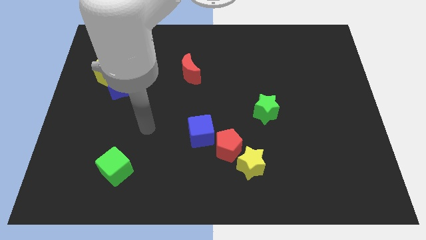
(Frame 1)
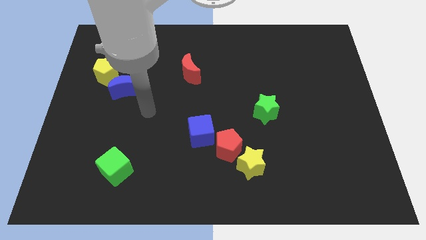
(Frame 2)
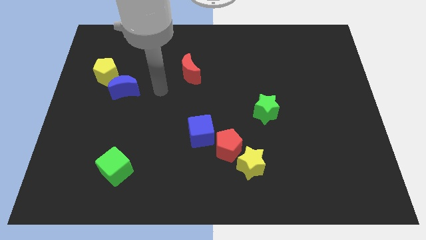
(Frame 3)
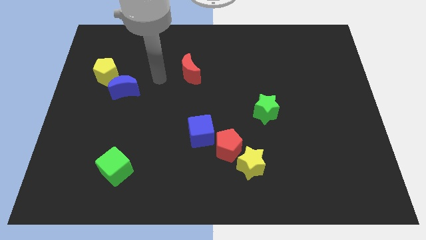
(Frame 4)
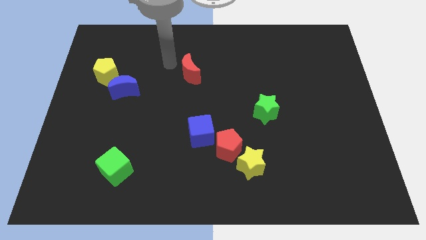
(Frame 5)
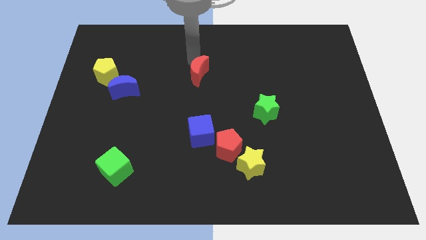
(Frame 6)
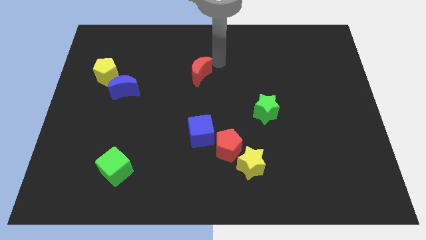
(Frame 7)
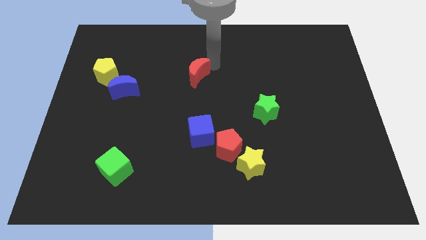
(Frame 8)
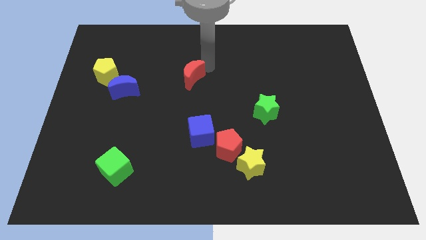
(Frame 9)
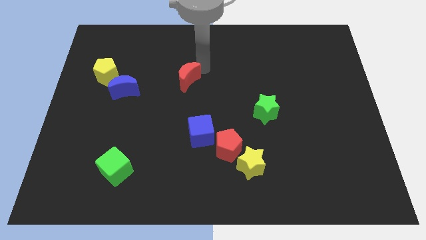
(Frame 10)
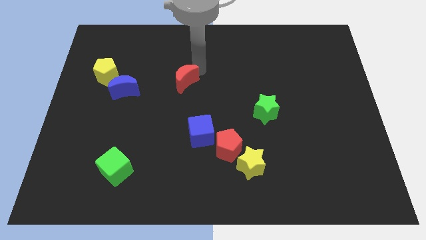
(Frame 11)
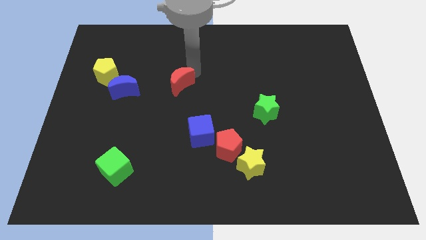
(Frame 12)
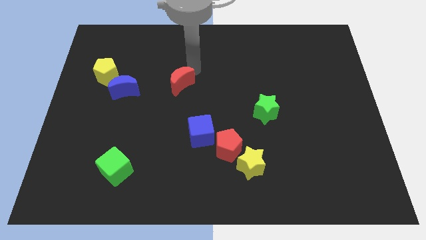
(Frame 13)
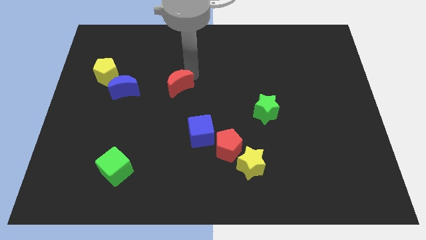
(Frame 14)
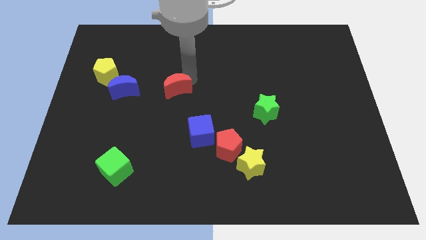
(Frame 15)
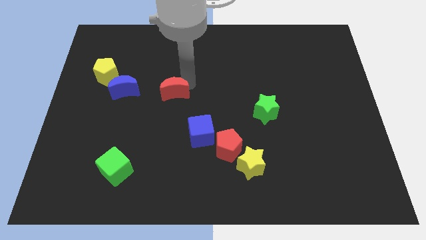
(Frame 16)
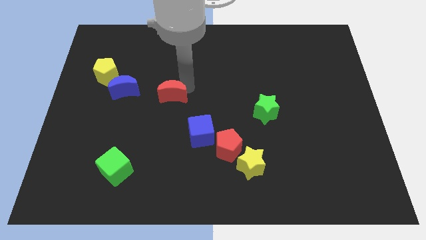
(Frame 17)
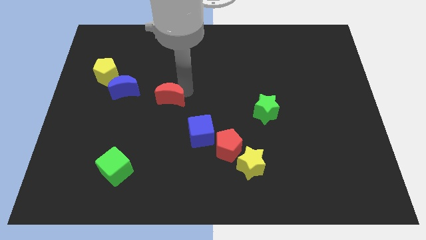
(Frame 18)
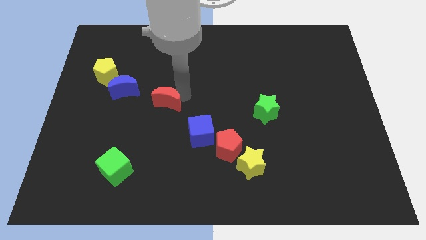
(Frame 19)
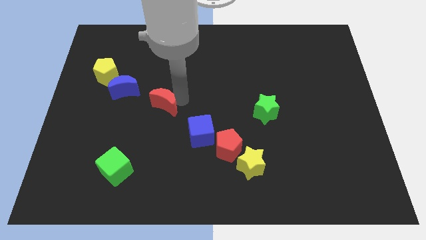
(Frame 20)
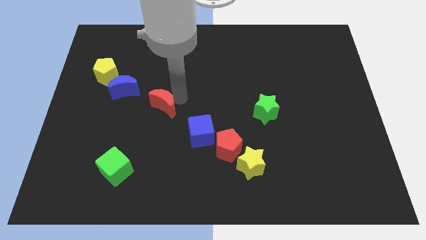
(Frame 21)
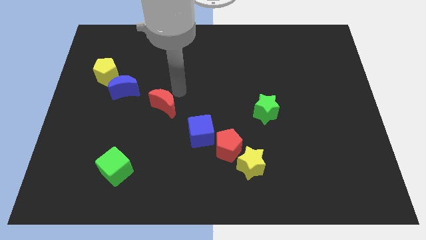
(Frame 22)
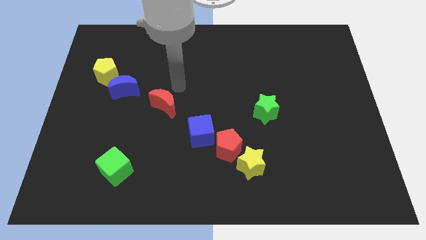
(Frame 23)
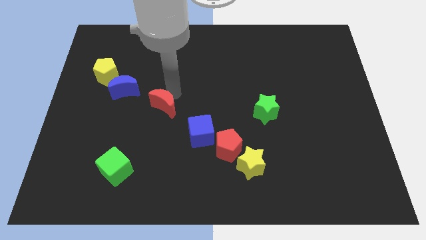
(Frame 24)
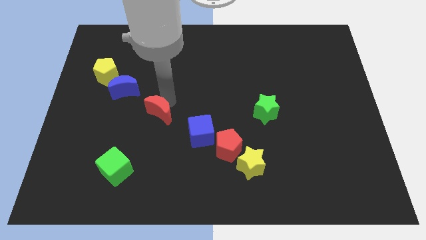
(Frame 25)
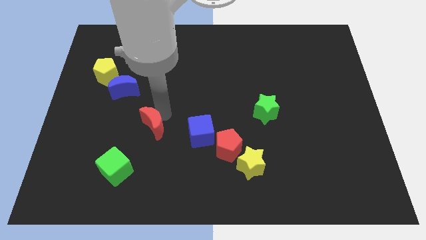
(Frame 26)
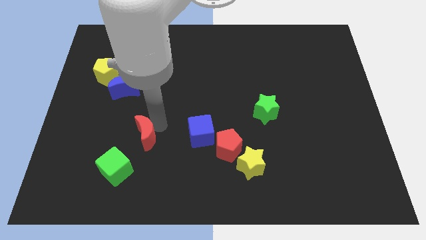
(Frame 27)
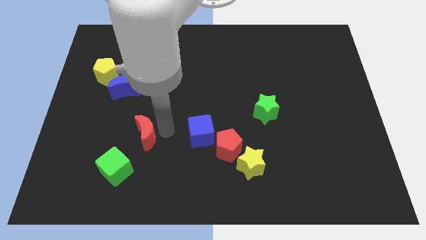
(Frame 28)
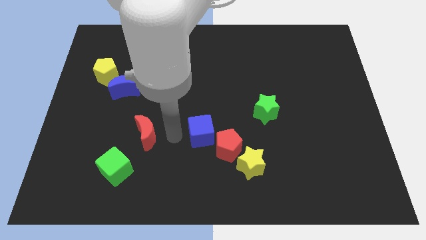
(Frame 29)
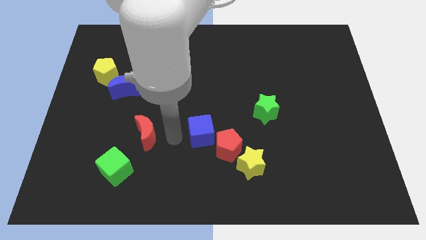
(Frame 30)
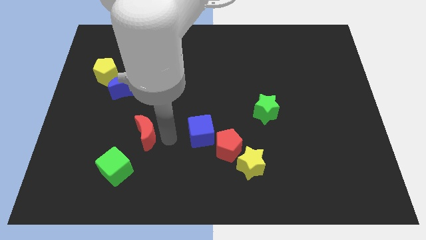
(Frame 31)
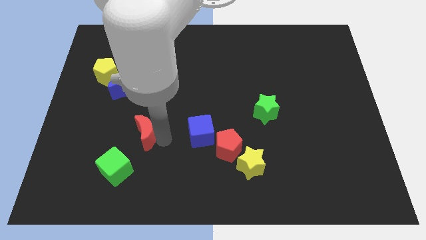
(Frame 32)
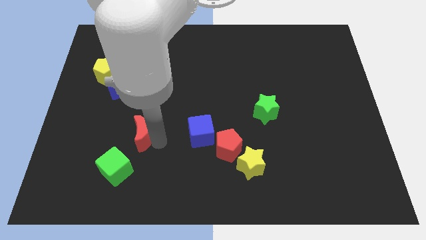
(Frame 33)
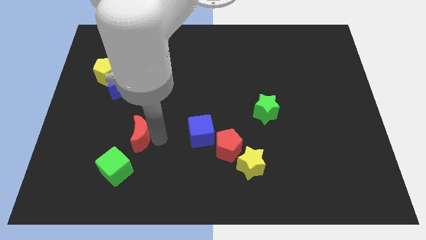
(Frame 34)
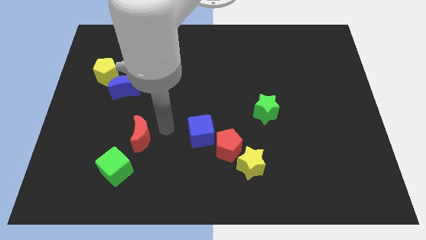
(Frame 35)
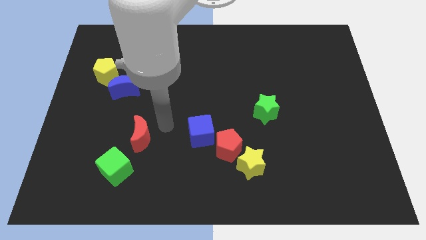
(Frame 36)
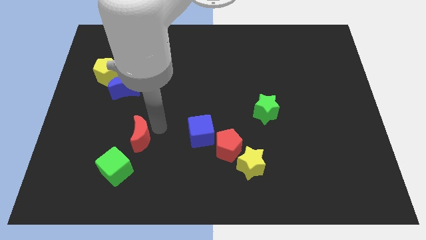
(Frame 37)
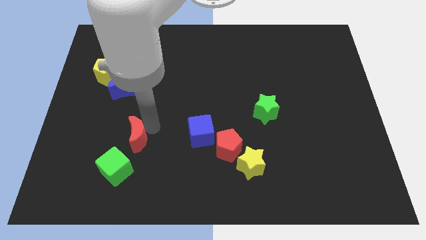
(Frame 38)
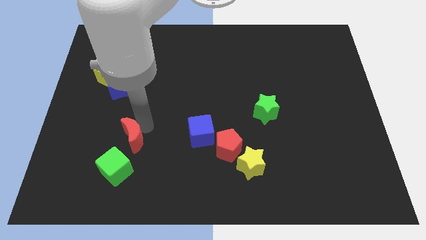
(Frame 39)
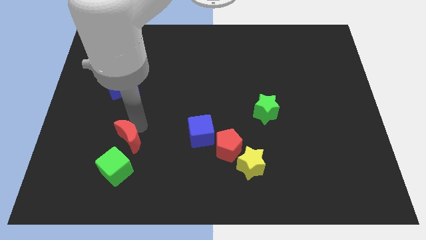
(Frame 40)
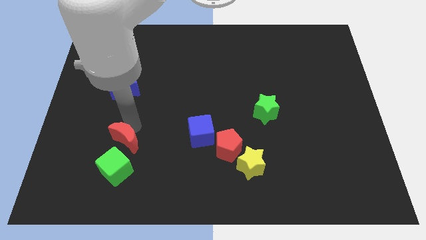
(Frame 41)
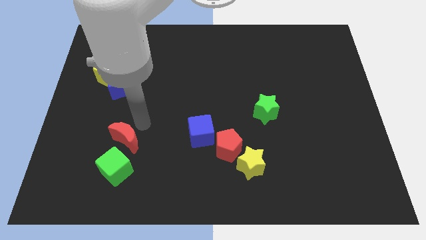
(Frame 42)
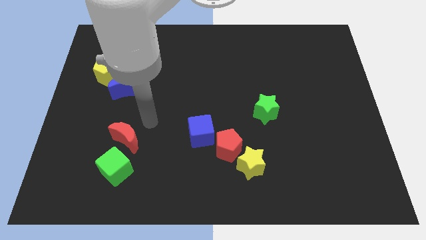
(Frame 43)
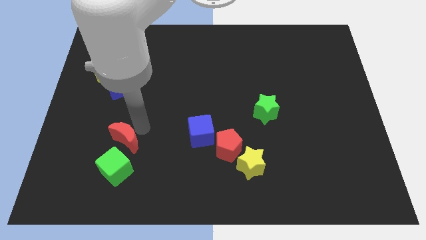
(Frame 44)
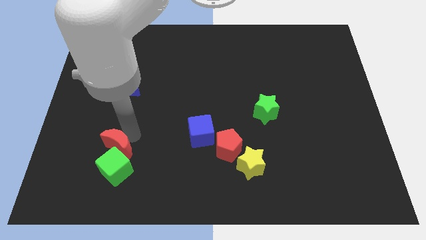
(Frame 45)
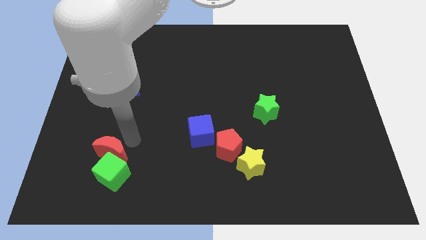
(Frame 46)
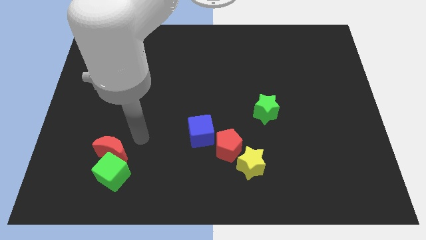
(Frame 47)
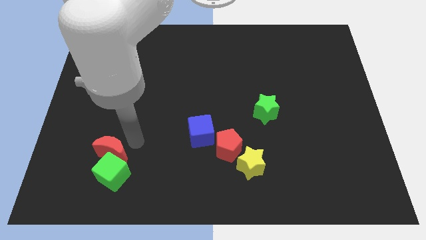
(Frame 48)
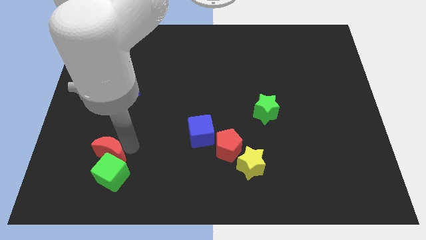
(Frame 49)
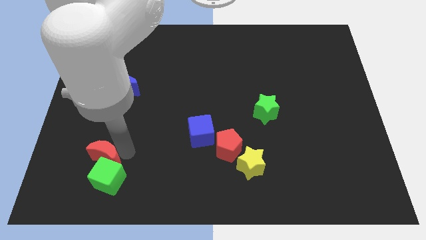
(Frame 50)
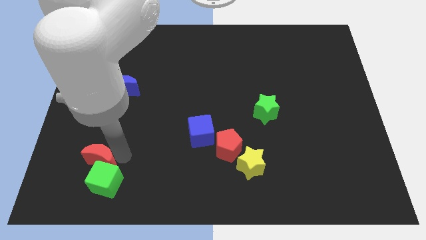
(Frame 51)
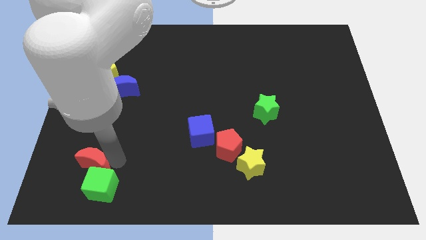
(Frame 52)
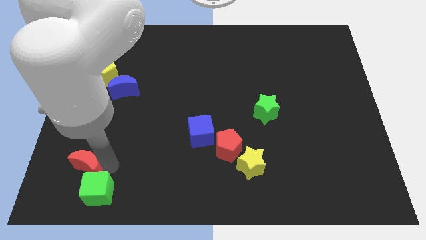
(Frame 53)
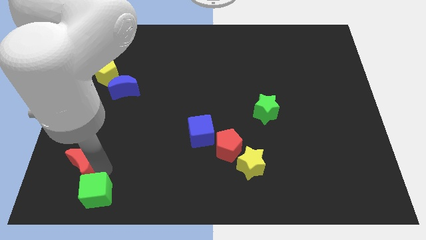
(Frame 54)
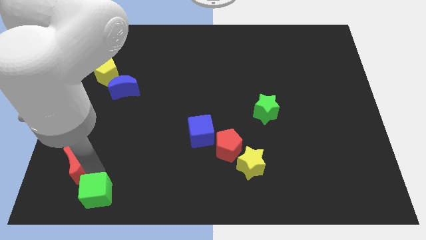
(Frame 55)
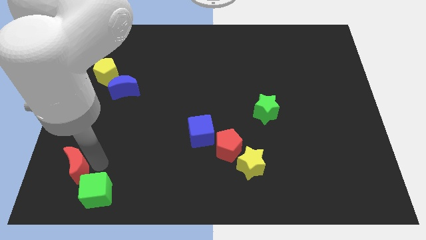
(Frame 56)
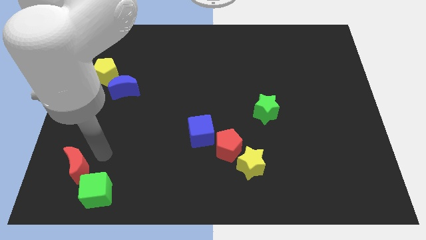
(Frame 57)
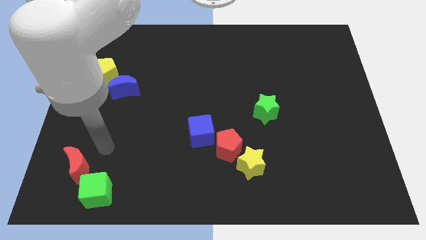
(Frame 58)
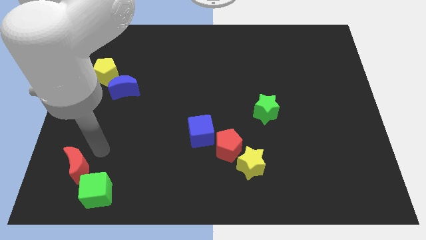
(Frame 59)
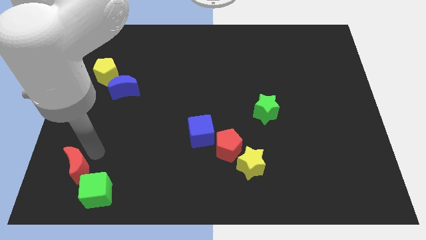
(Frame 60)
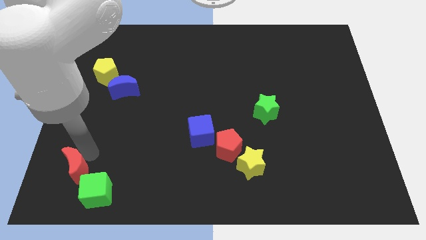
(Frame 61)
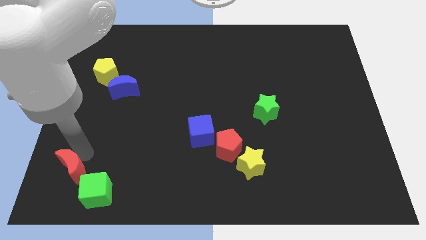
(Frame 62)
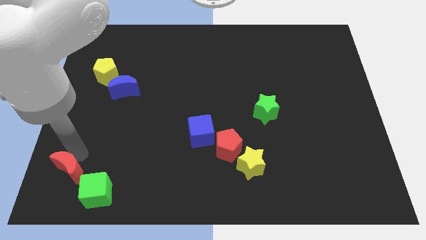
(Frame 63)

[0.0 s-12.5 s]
move the red moon to the bottom left of the board

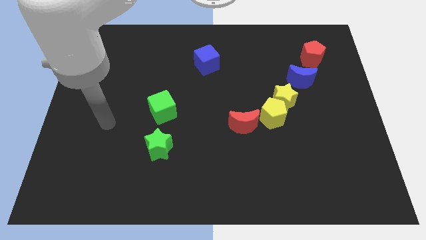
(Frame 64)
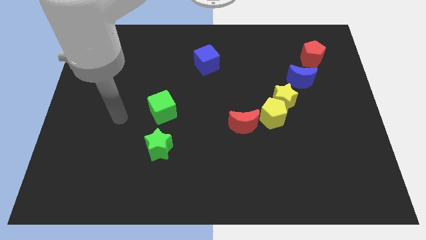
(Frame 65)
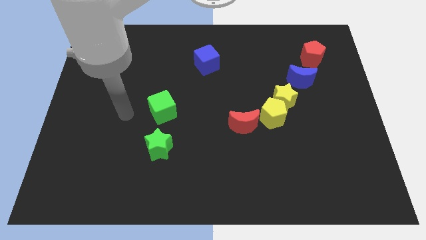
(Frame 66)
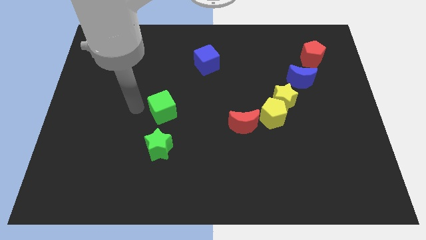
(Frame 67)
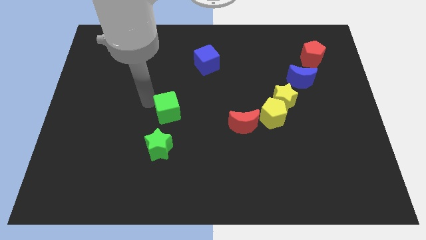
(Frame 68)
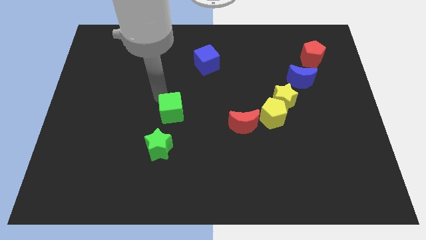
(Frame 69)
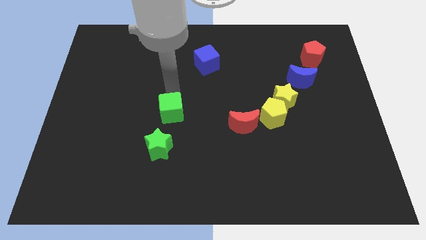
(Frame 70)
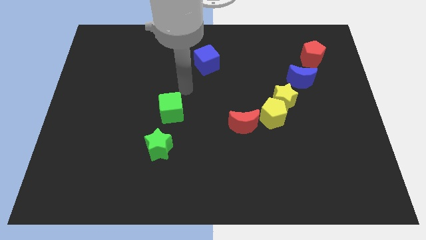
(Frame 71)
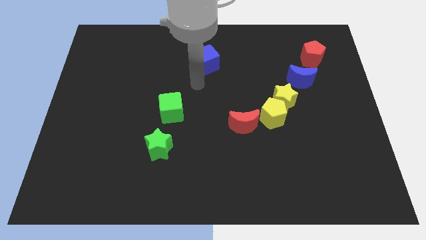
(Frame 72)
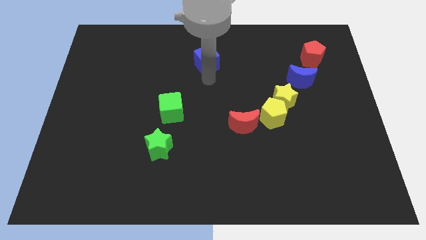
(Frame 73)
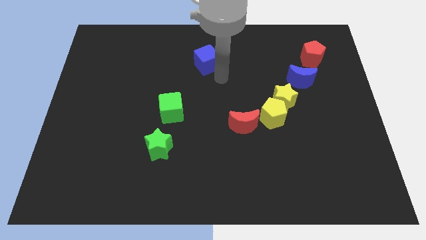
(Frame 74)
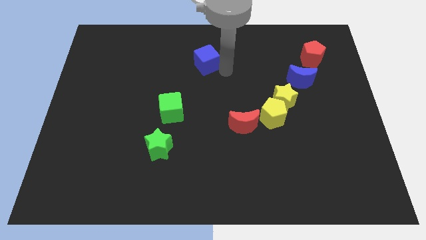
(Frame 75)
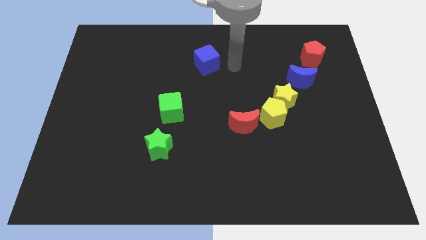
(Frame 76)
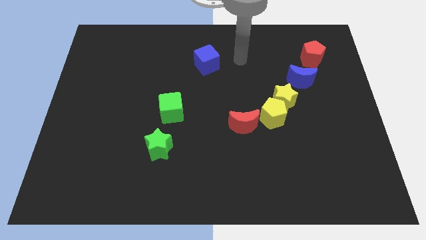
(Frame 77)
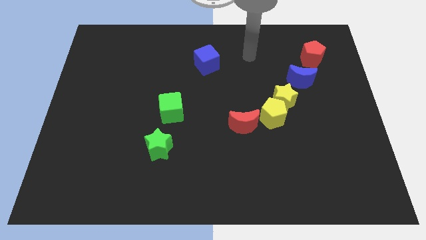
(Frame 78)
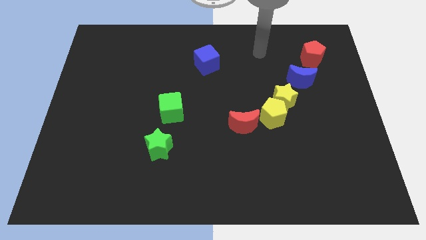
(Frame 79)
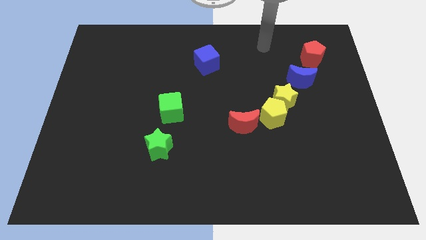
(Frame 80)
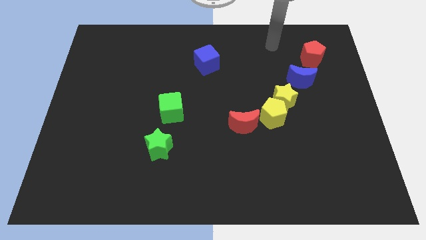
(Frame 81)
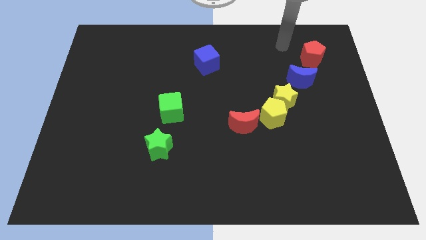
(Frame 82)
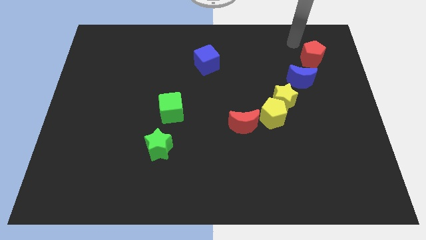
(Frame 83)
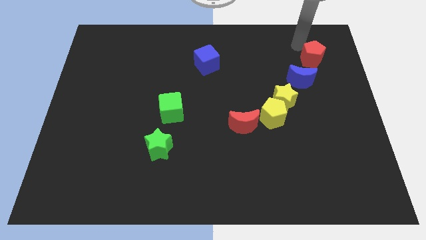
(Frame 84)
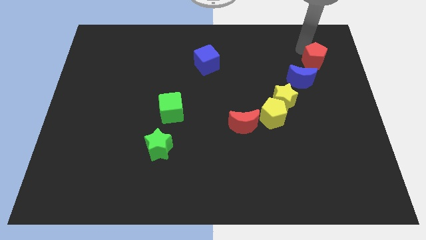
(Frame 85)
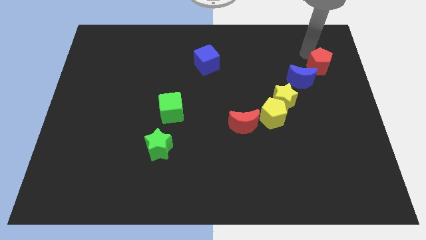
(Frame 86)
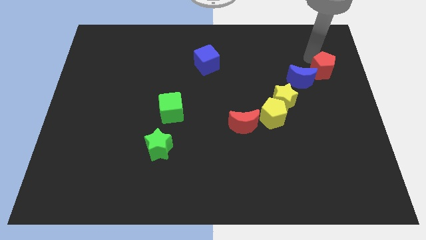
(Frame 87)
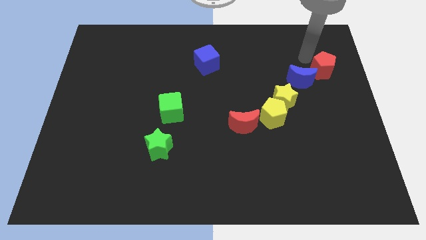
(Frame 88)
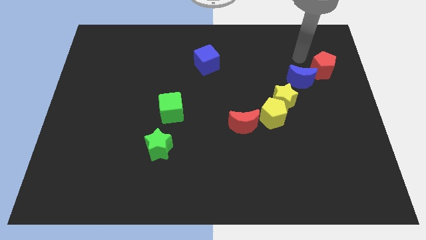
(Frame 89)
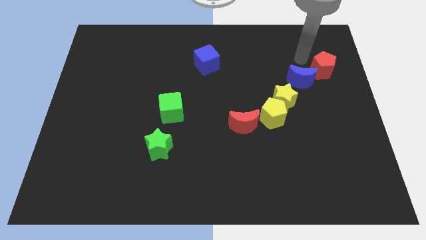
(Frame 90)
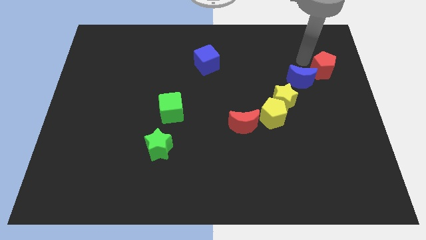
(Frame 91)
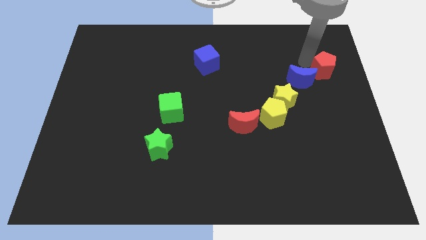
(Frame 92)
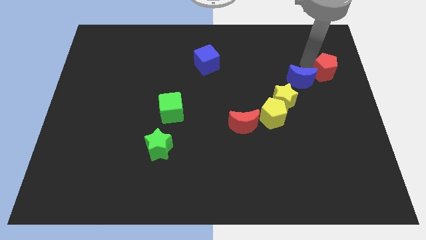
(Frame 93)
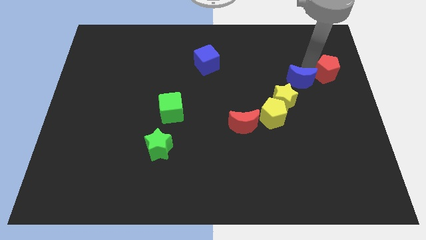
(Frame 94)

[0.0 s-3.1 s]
move the red pentagon to the right side
